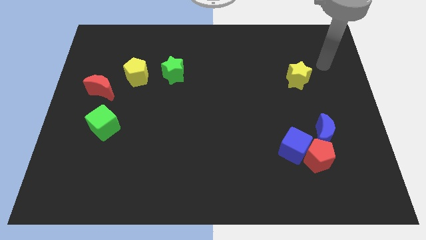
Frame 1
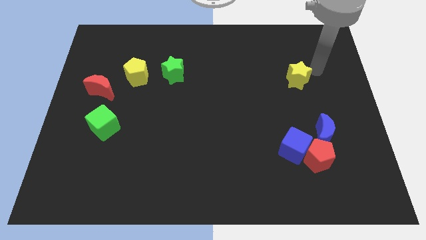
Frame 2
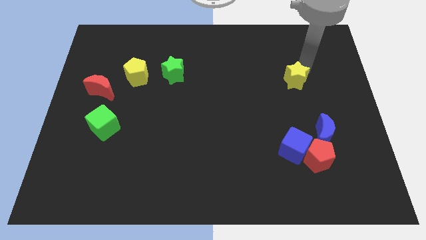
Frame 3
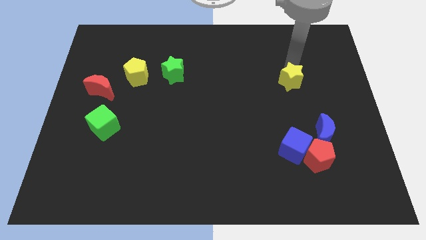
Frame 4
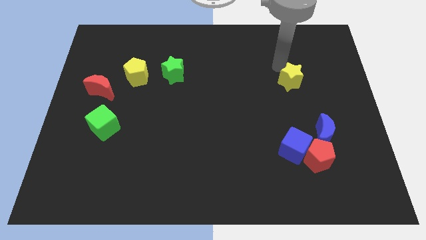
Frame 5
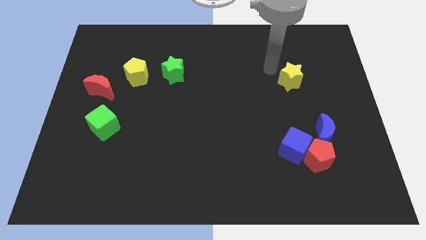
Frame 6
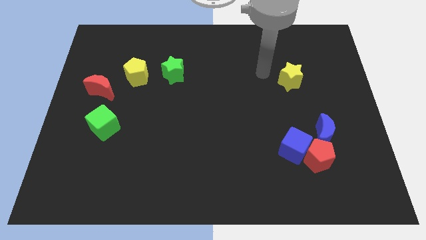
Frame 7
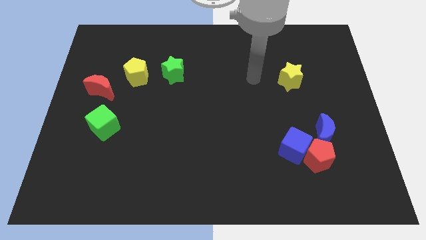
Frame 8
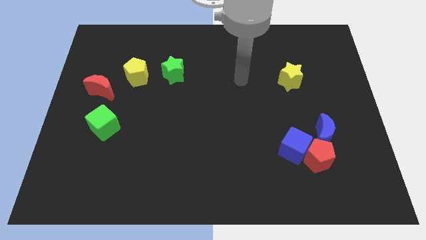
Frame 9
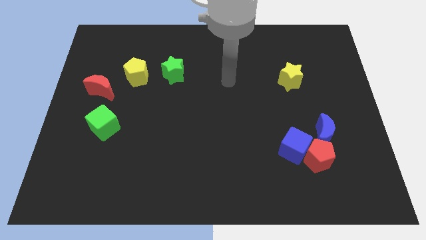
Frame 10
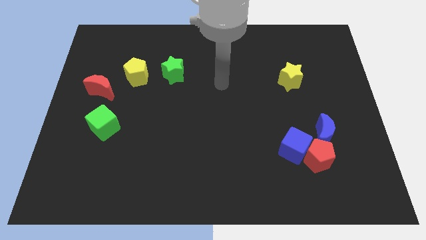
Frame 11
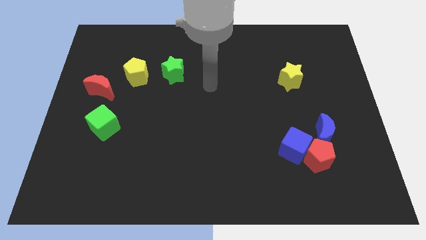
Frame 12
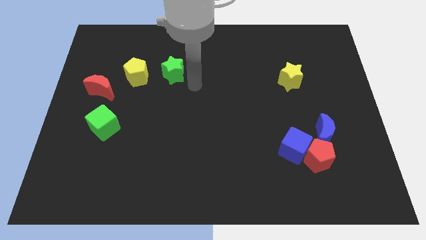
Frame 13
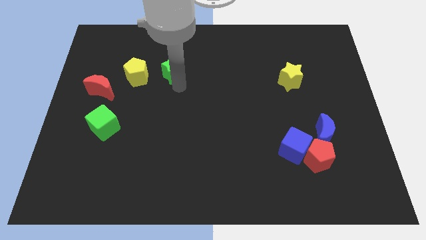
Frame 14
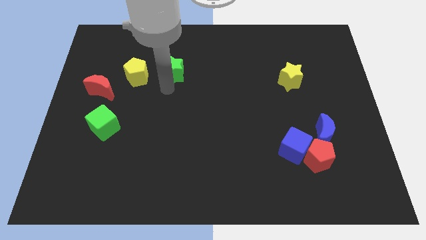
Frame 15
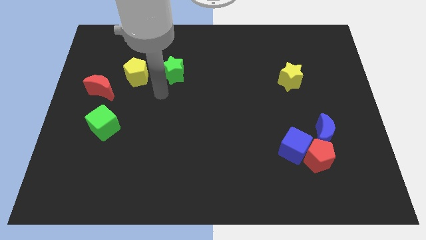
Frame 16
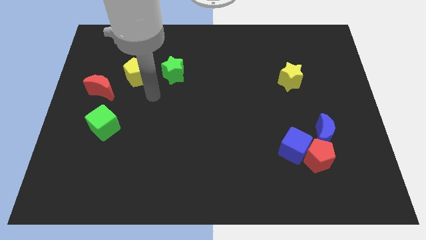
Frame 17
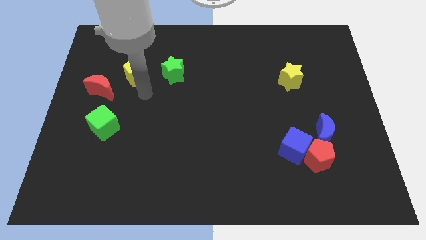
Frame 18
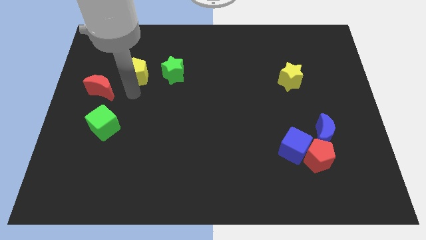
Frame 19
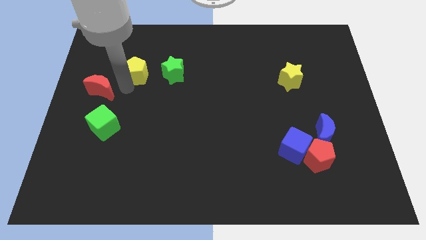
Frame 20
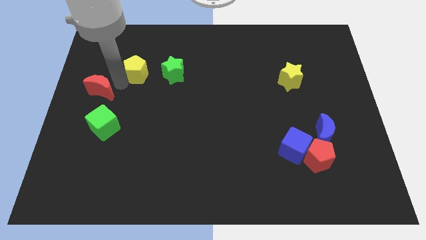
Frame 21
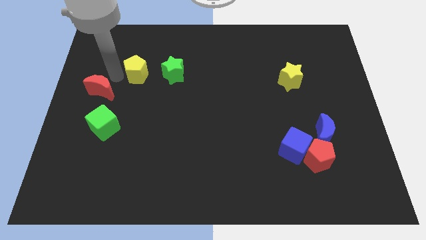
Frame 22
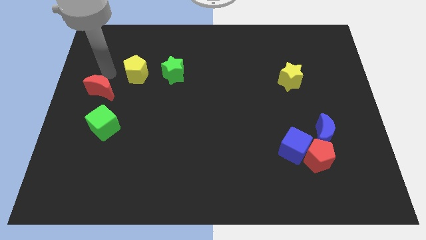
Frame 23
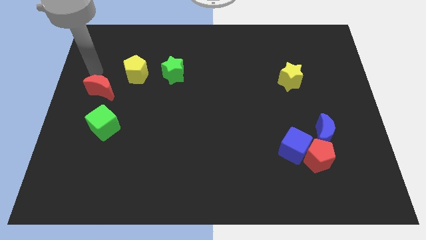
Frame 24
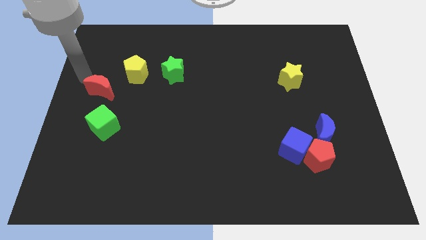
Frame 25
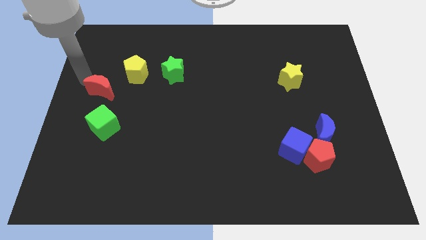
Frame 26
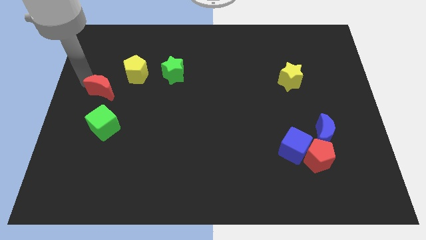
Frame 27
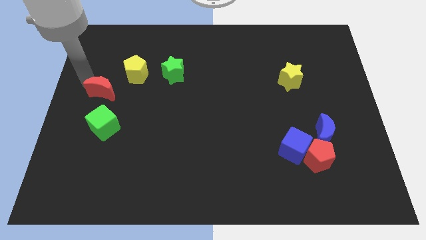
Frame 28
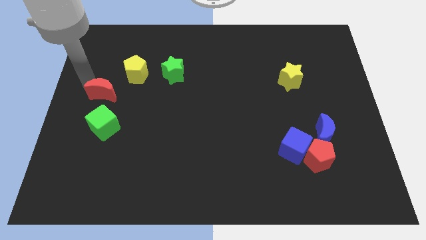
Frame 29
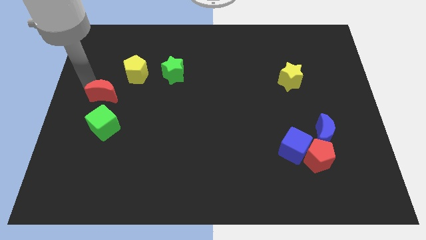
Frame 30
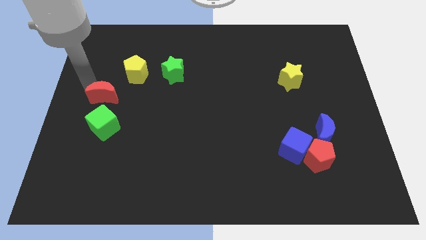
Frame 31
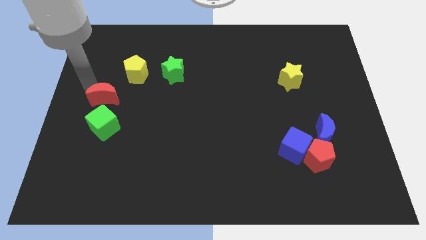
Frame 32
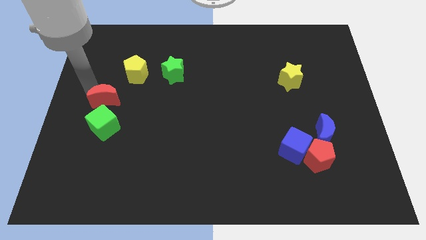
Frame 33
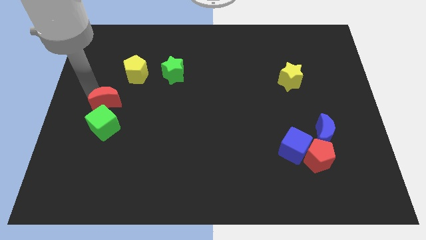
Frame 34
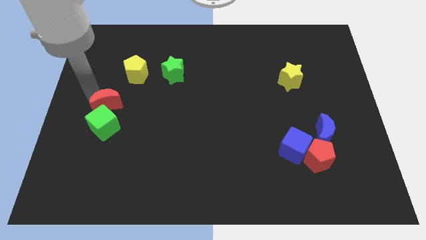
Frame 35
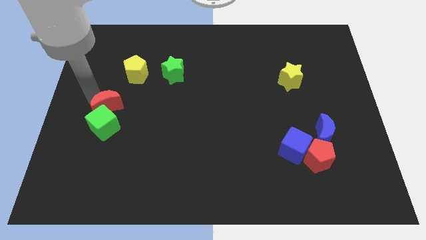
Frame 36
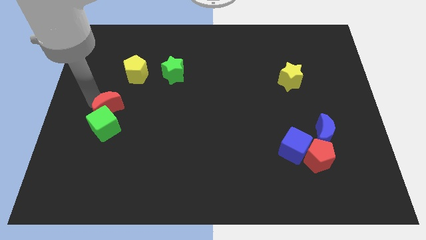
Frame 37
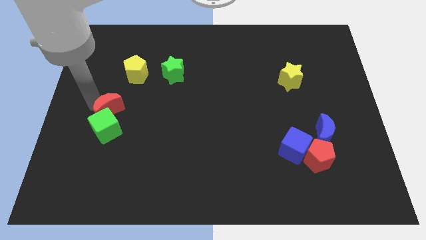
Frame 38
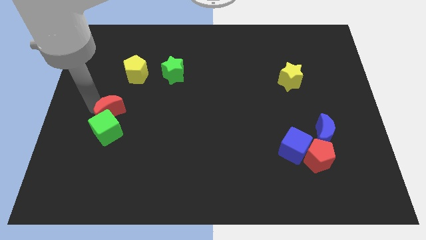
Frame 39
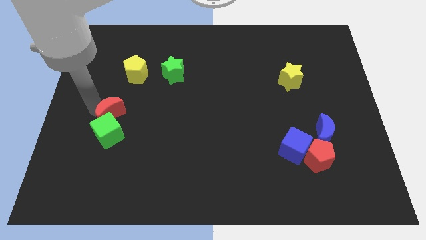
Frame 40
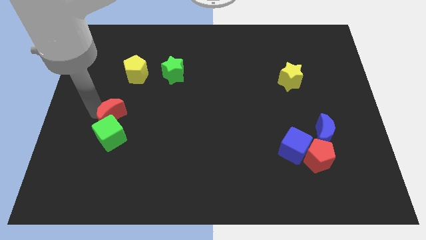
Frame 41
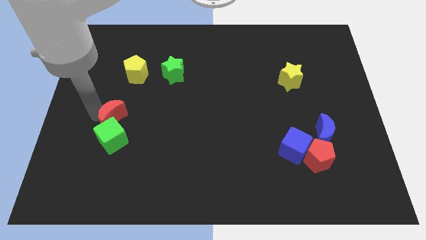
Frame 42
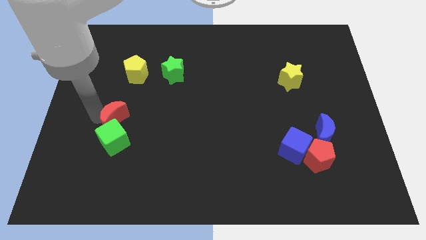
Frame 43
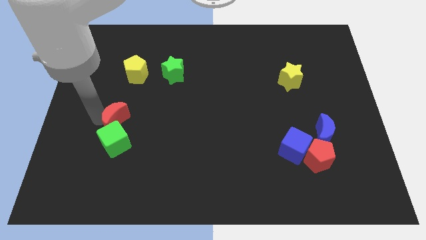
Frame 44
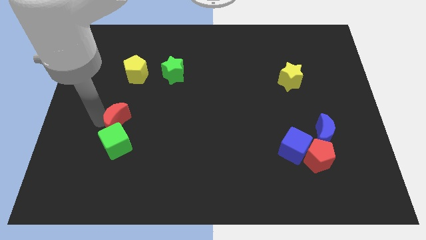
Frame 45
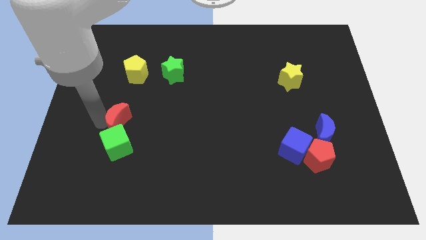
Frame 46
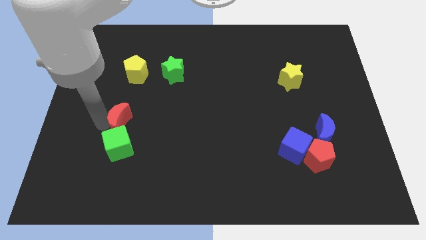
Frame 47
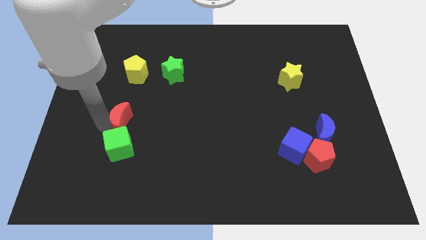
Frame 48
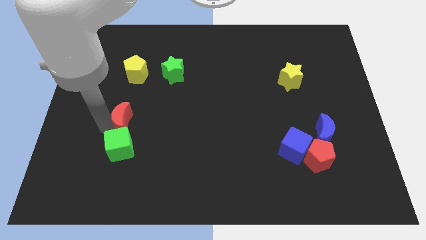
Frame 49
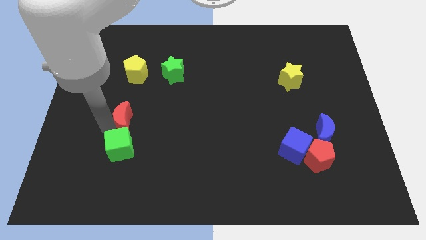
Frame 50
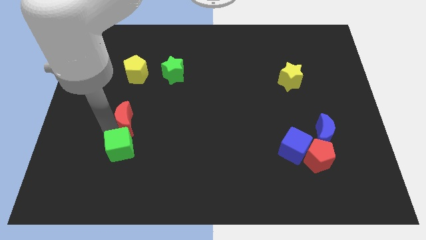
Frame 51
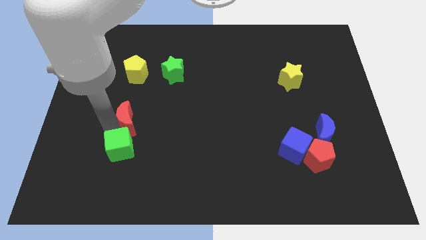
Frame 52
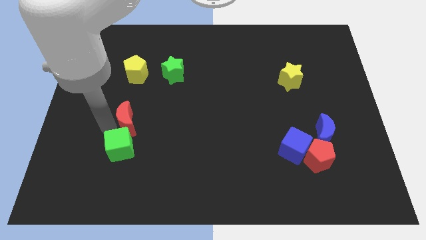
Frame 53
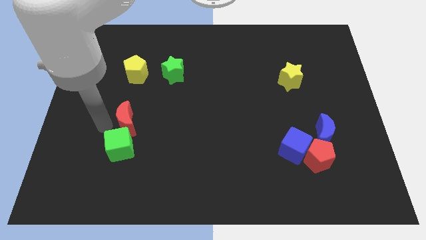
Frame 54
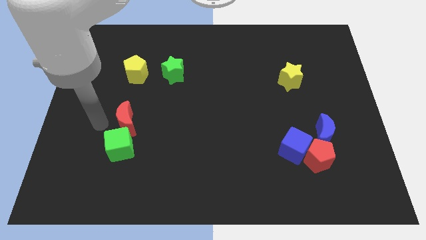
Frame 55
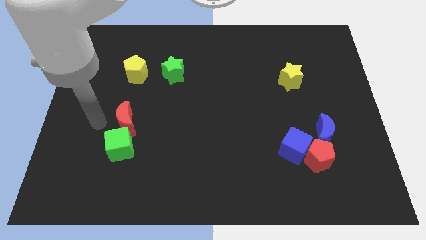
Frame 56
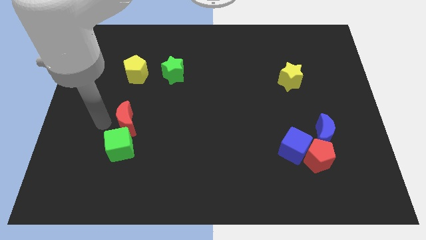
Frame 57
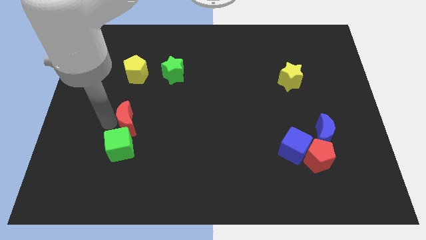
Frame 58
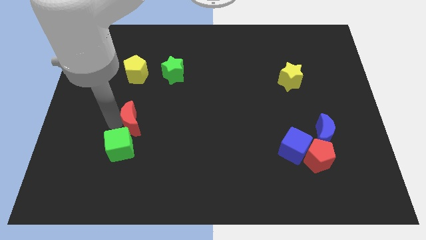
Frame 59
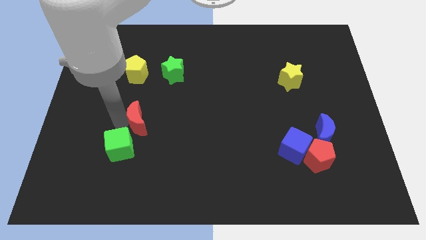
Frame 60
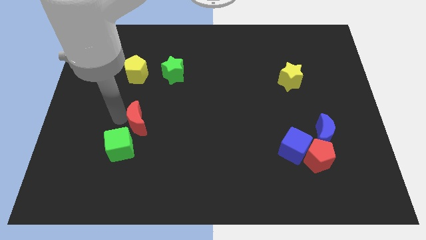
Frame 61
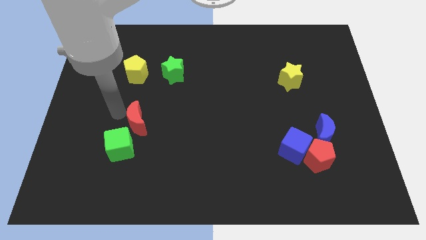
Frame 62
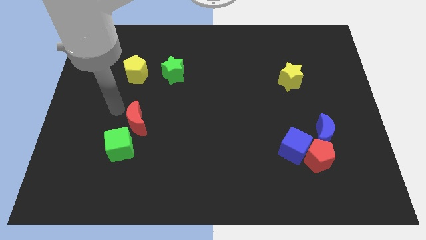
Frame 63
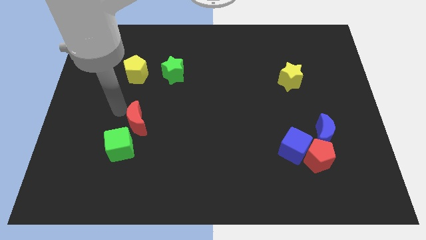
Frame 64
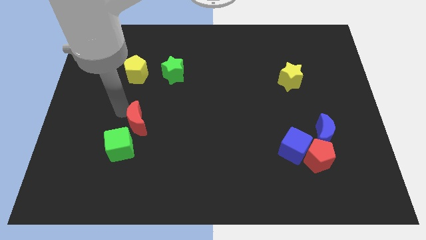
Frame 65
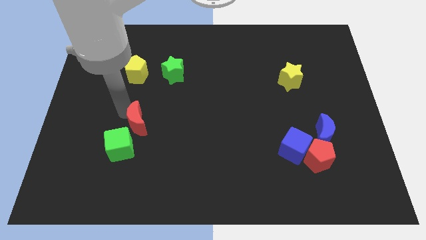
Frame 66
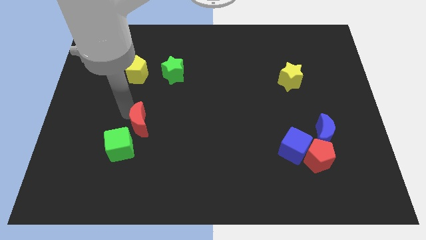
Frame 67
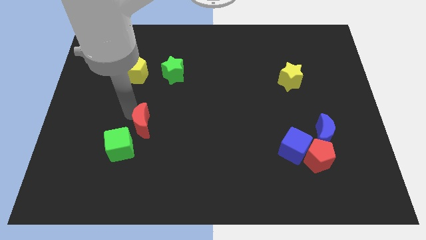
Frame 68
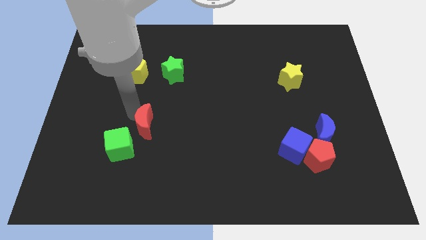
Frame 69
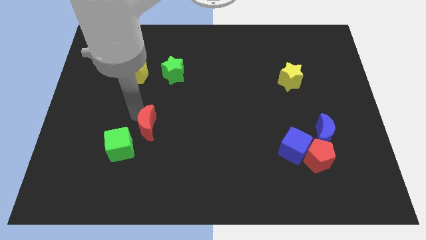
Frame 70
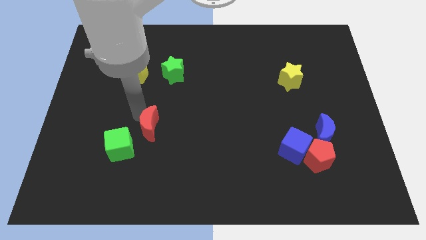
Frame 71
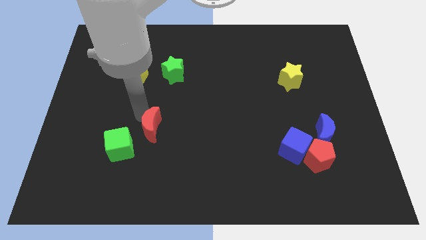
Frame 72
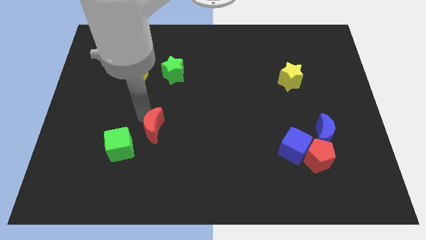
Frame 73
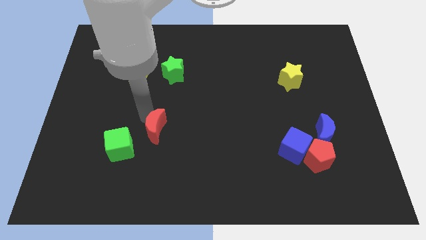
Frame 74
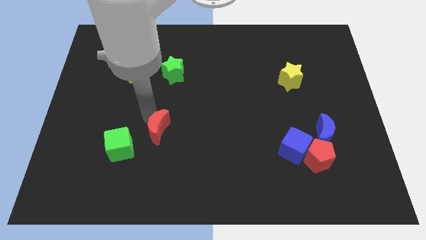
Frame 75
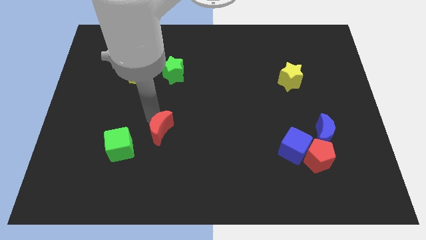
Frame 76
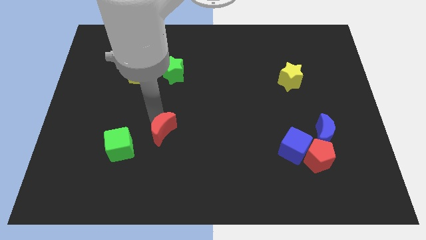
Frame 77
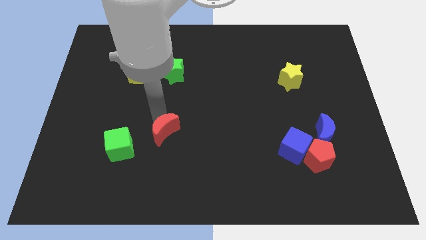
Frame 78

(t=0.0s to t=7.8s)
push the red moon down and right

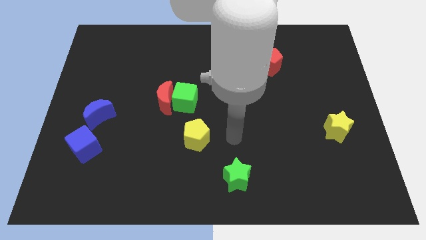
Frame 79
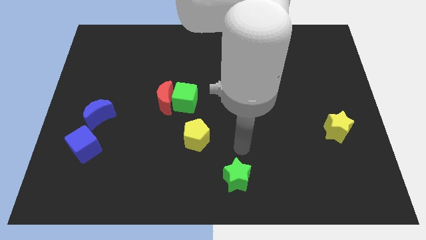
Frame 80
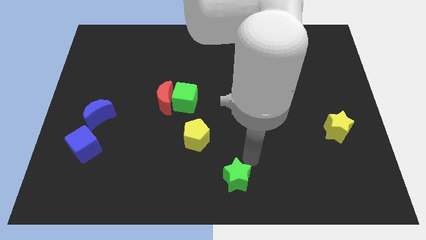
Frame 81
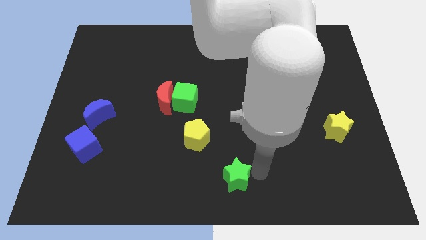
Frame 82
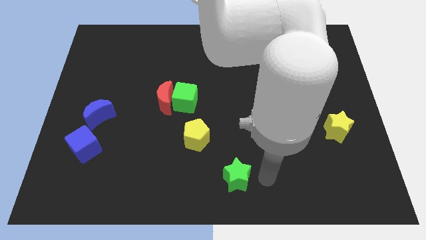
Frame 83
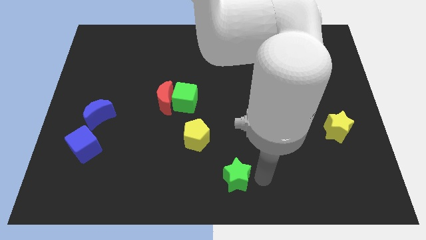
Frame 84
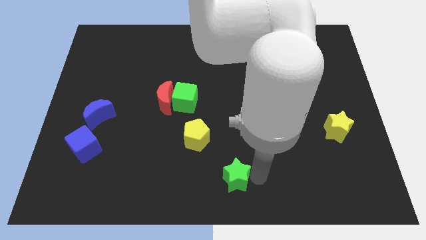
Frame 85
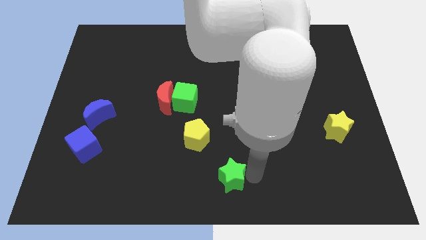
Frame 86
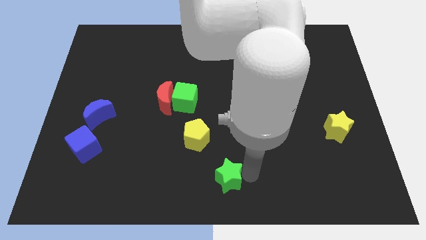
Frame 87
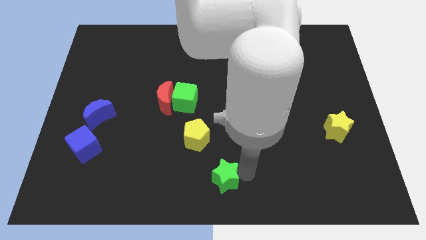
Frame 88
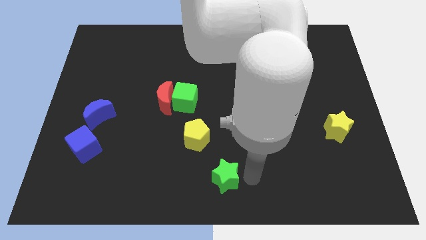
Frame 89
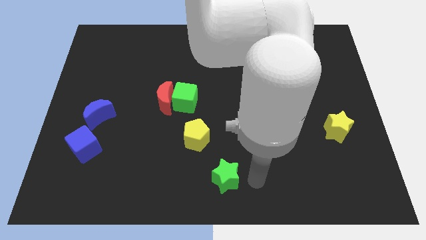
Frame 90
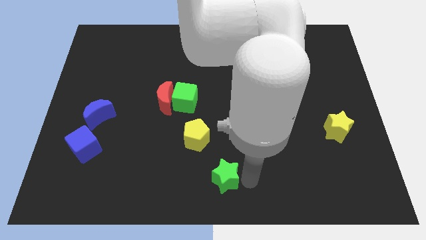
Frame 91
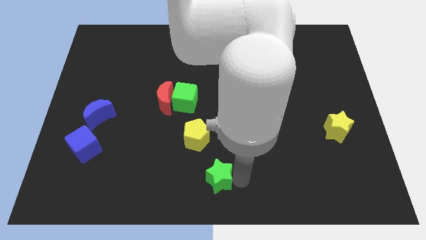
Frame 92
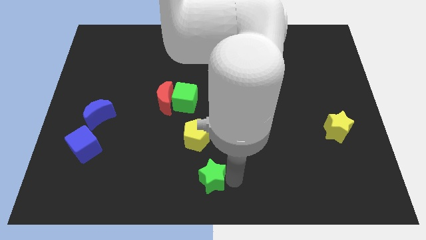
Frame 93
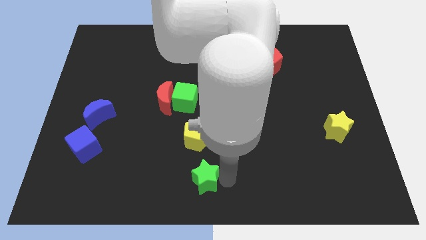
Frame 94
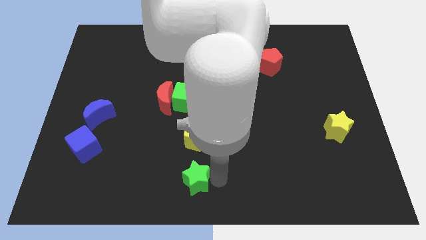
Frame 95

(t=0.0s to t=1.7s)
push the green star a little to the left
